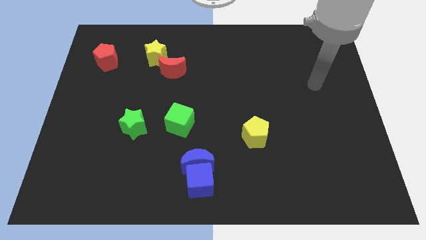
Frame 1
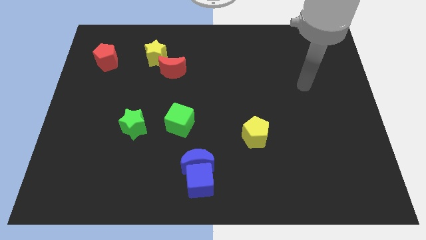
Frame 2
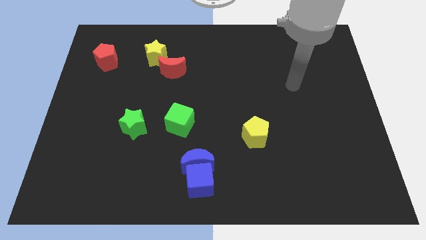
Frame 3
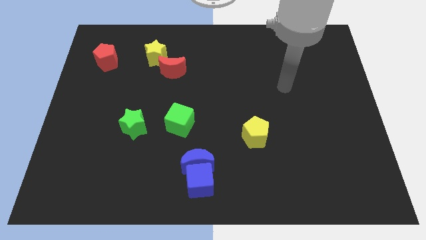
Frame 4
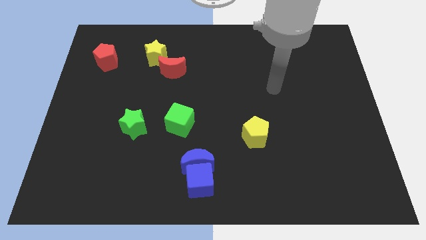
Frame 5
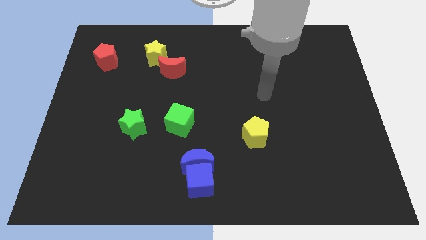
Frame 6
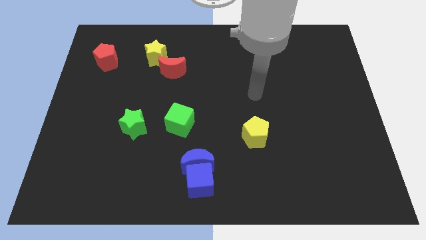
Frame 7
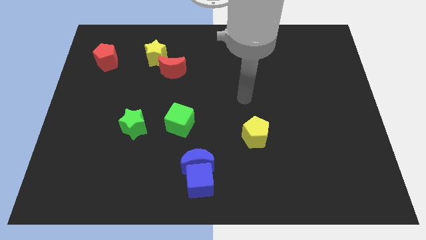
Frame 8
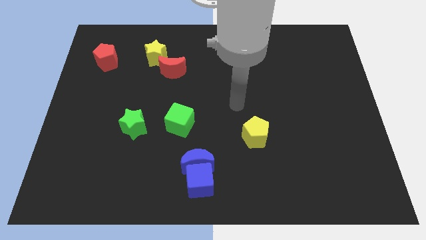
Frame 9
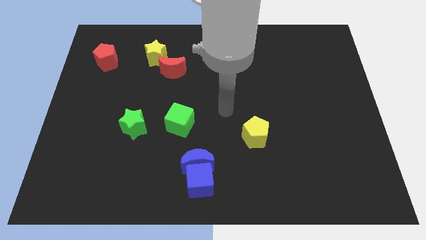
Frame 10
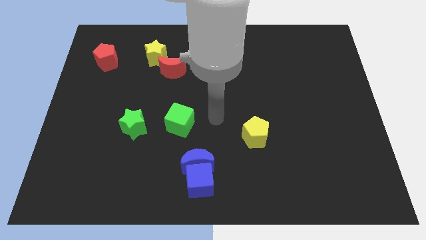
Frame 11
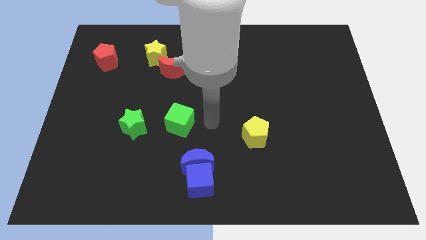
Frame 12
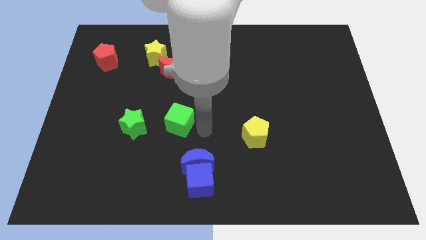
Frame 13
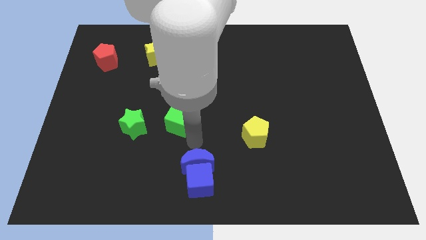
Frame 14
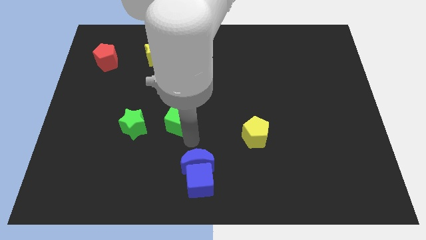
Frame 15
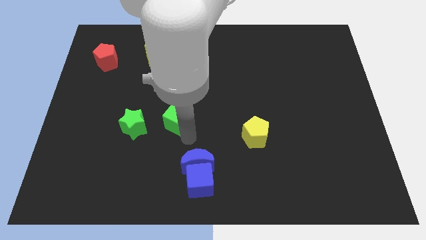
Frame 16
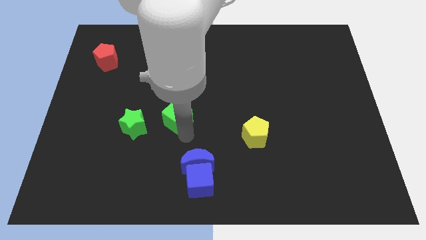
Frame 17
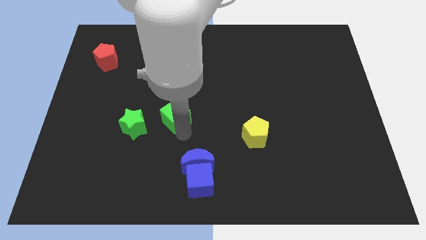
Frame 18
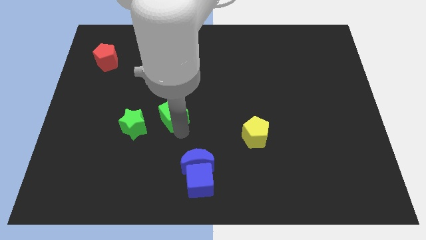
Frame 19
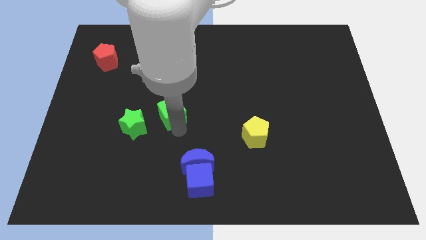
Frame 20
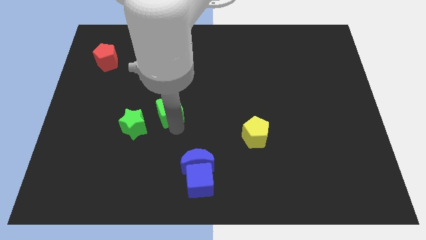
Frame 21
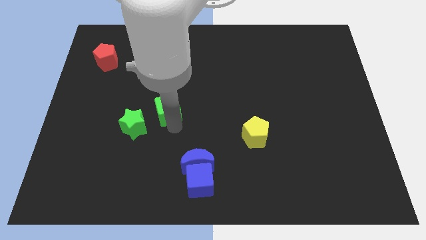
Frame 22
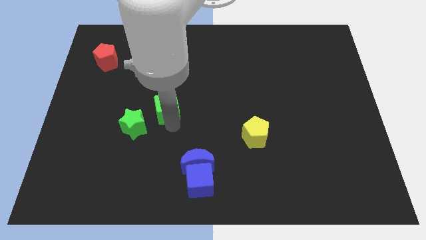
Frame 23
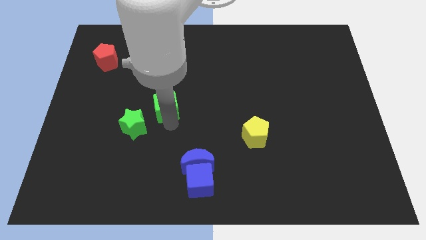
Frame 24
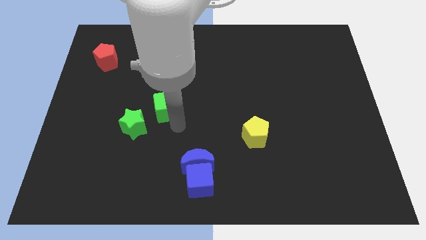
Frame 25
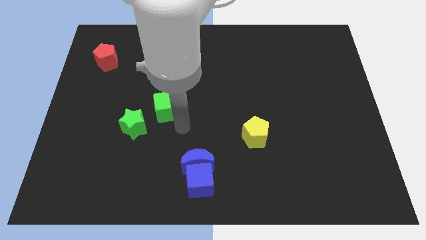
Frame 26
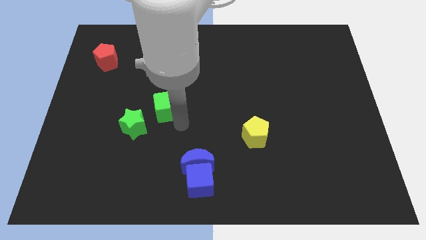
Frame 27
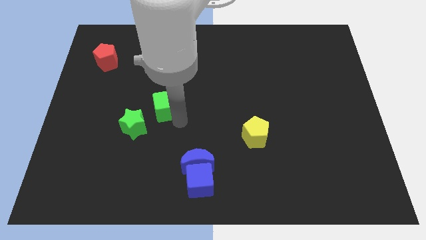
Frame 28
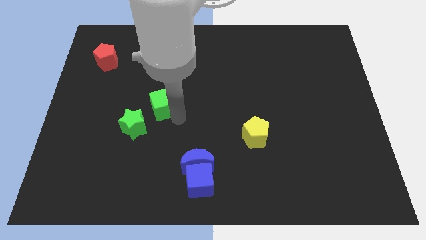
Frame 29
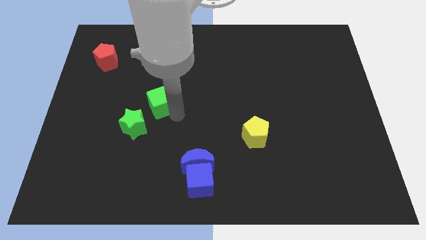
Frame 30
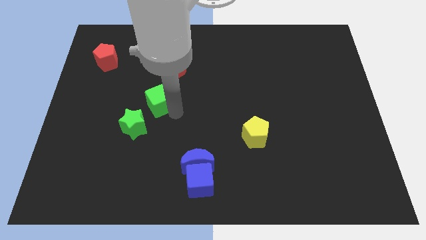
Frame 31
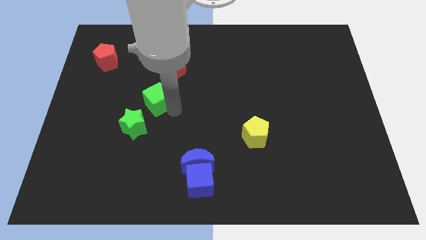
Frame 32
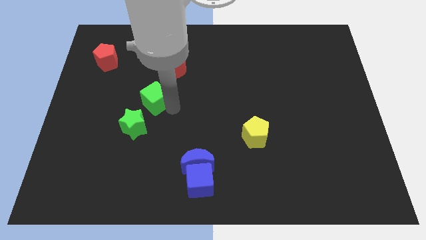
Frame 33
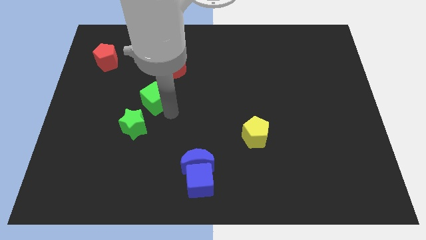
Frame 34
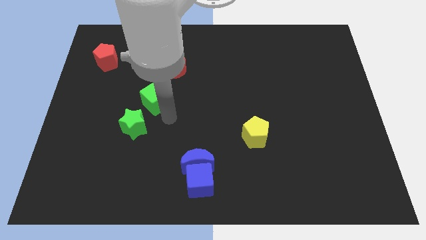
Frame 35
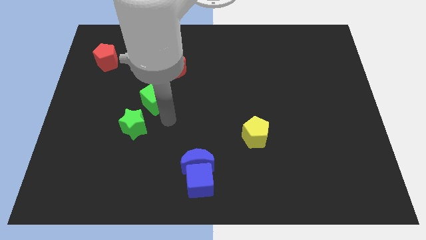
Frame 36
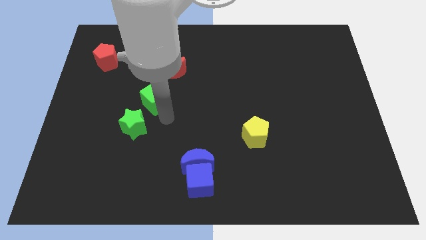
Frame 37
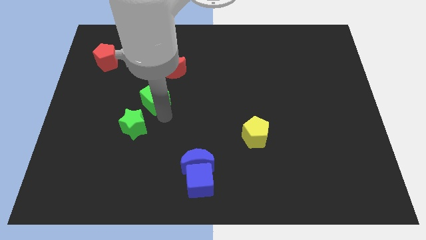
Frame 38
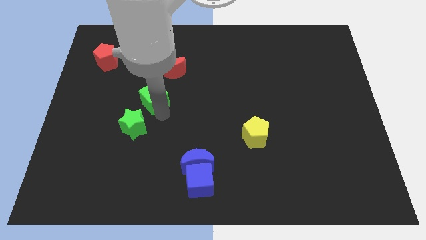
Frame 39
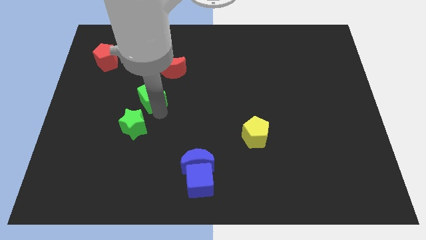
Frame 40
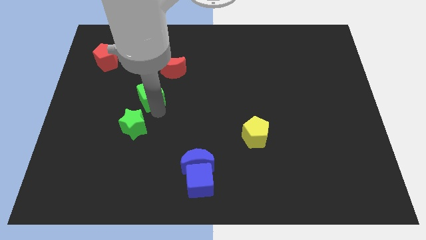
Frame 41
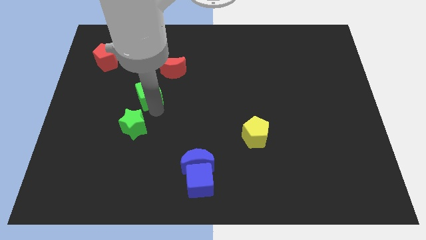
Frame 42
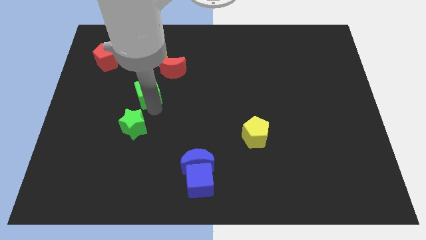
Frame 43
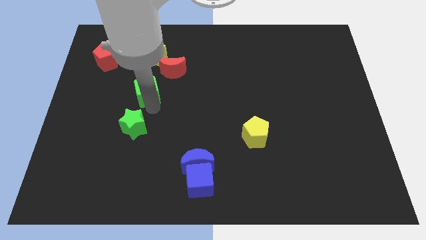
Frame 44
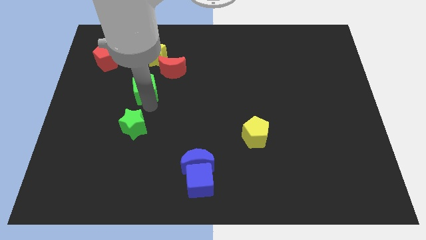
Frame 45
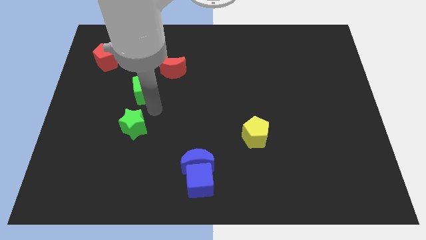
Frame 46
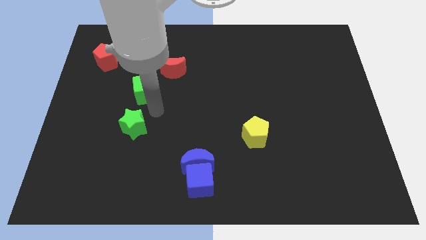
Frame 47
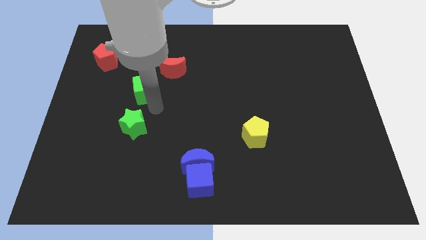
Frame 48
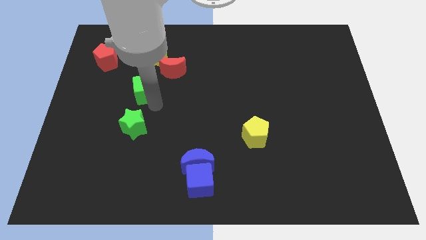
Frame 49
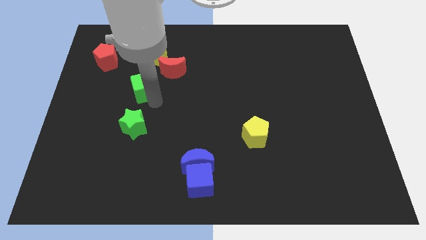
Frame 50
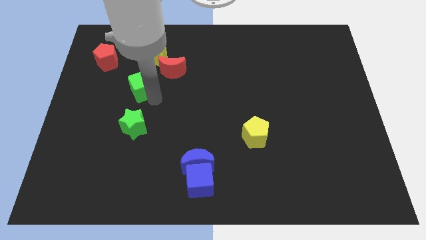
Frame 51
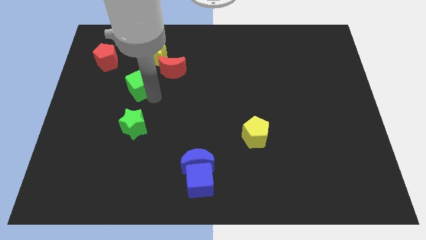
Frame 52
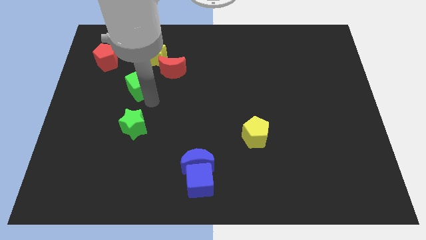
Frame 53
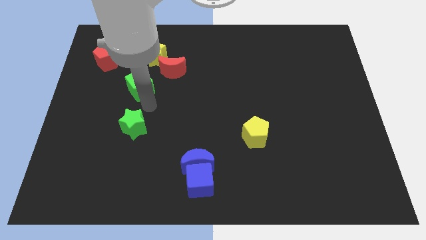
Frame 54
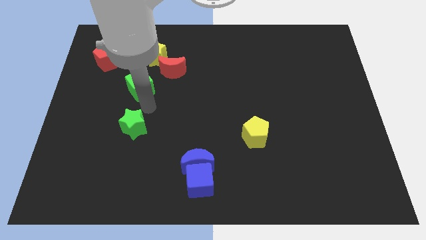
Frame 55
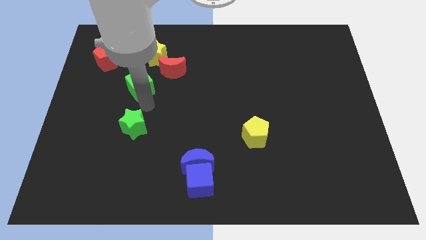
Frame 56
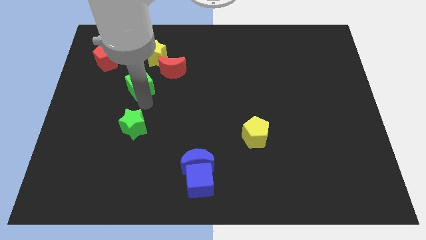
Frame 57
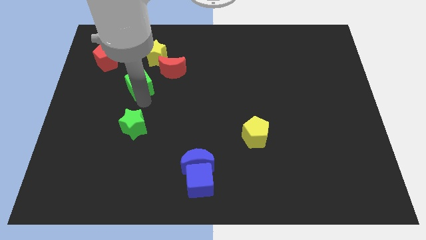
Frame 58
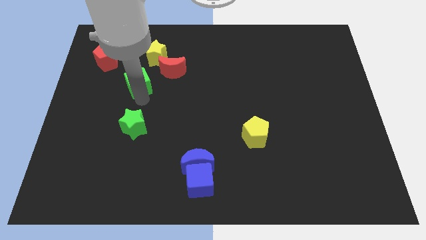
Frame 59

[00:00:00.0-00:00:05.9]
put the green cube diagonally down and to the left of the yellow star

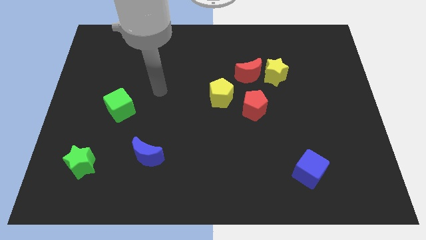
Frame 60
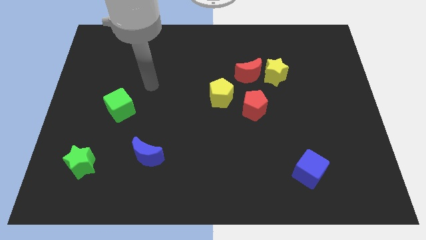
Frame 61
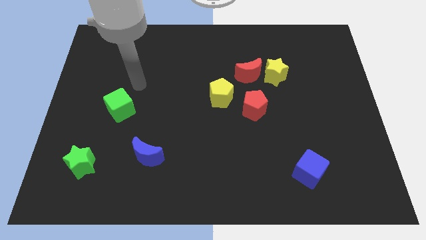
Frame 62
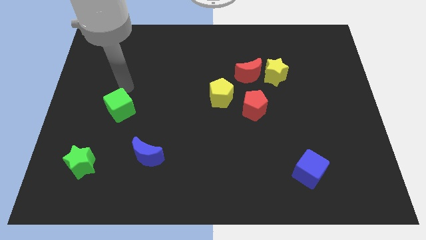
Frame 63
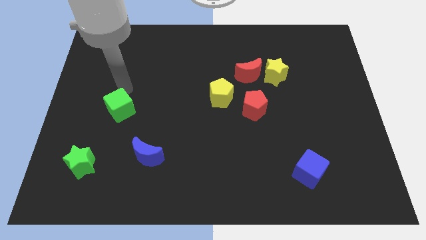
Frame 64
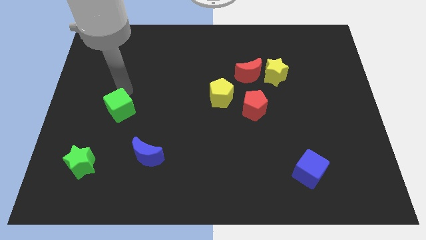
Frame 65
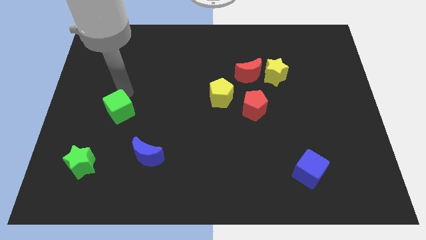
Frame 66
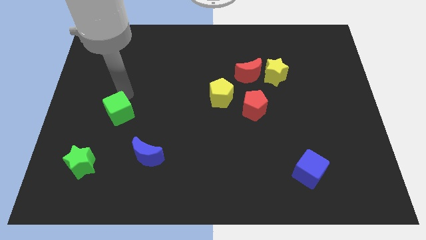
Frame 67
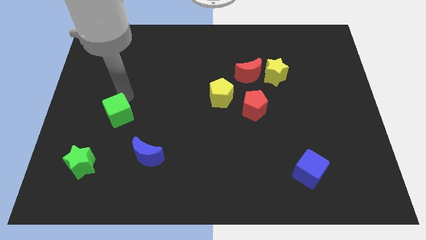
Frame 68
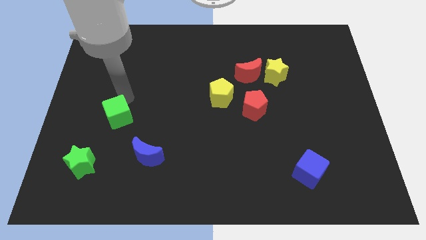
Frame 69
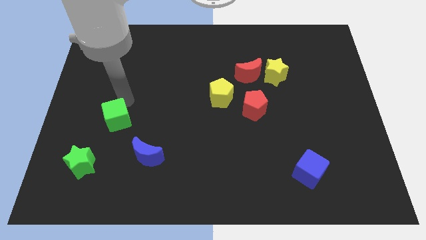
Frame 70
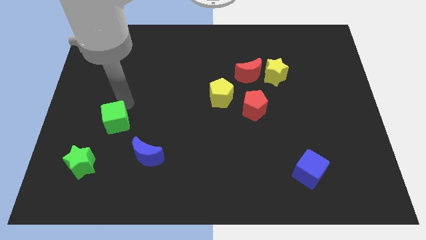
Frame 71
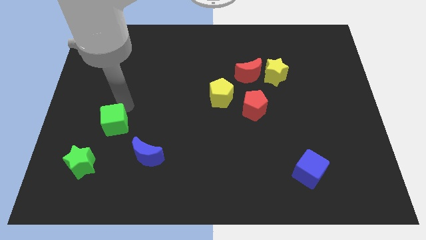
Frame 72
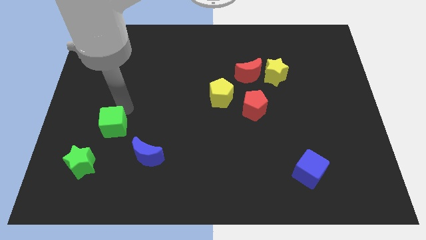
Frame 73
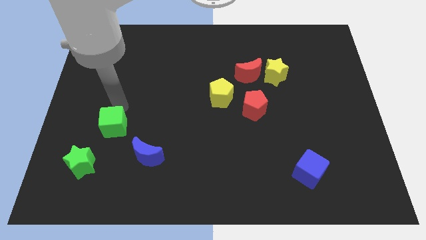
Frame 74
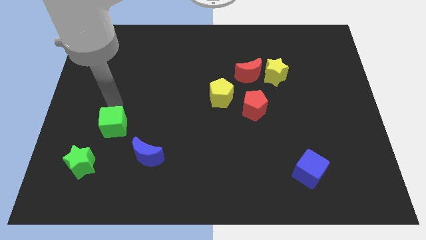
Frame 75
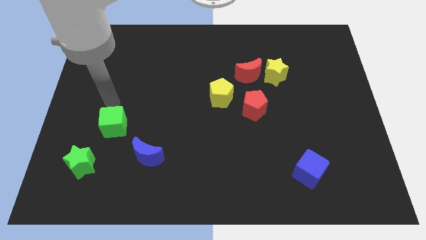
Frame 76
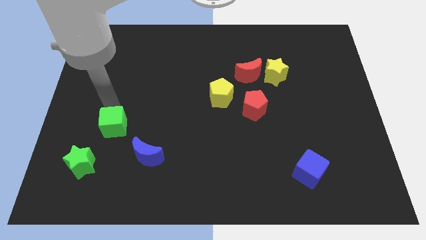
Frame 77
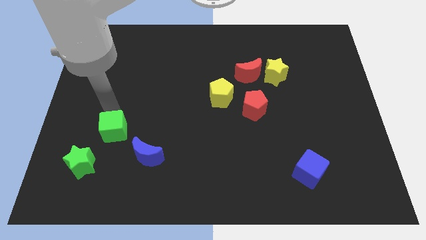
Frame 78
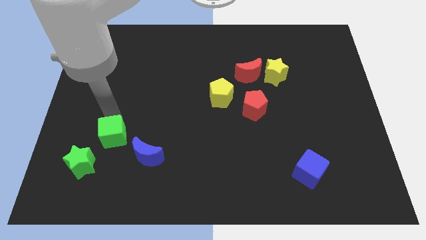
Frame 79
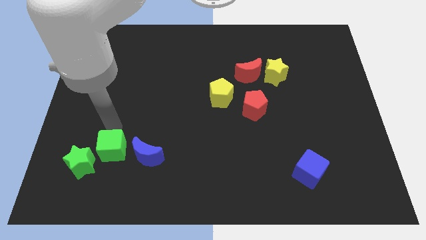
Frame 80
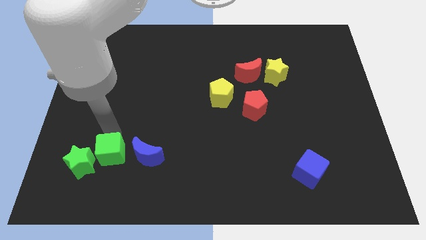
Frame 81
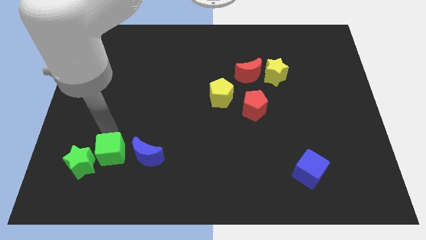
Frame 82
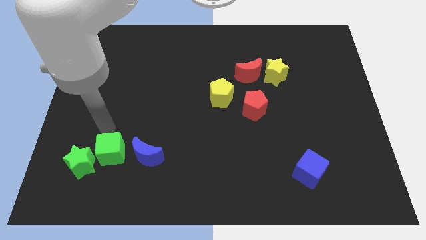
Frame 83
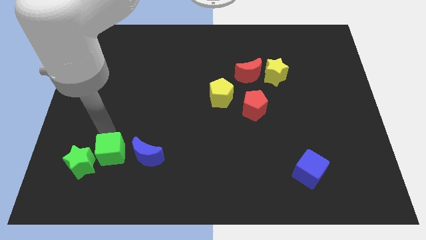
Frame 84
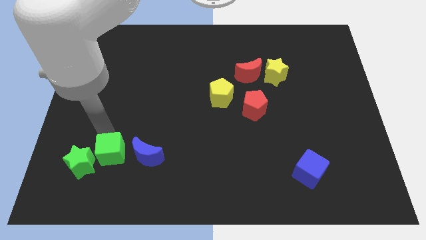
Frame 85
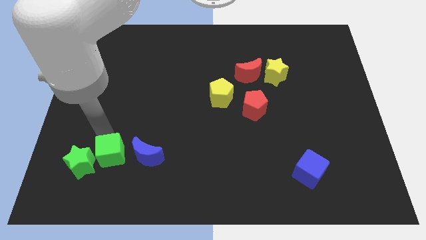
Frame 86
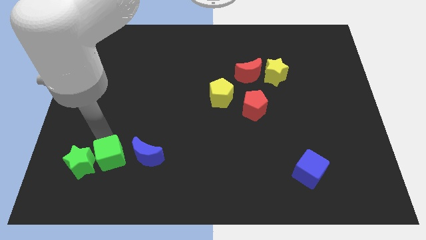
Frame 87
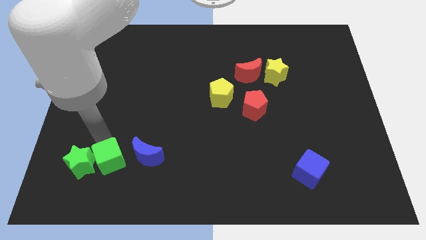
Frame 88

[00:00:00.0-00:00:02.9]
move the green cube to the bottom left side of the blue moon
